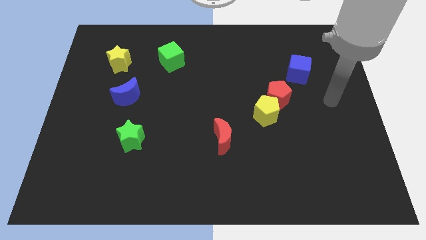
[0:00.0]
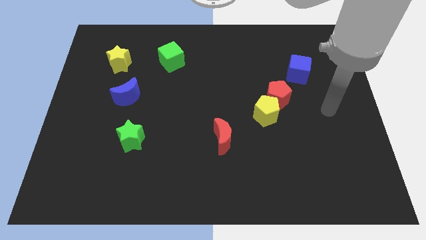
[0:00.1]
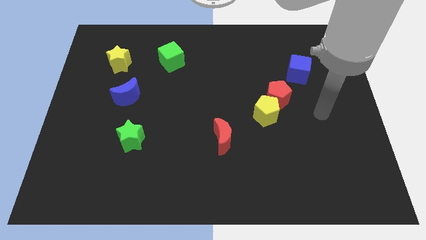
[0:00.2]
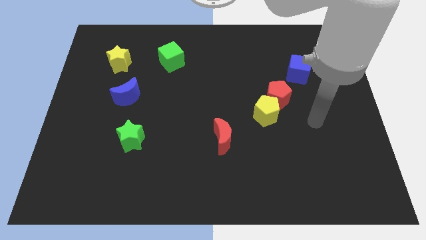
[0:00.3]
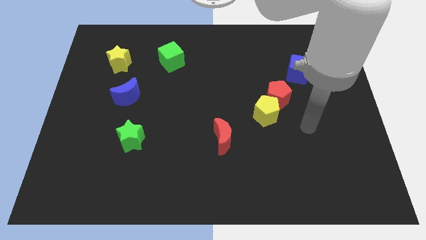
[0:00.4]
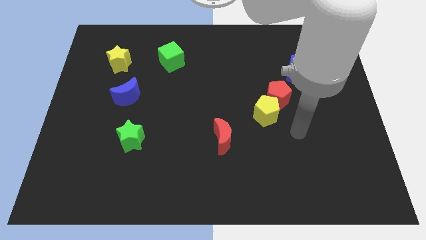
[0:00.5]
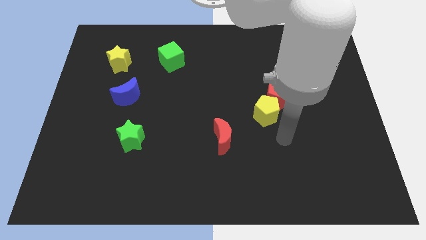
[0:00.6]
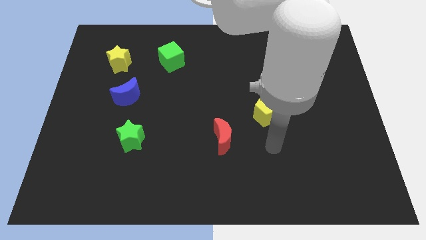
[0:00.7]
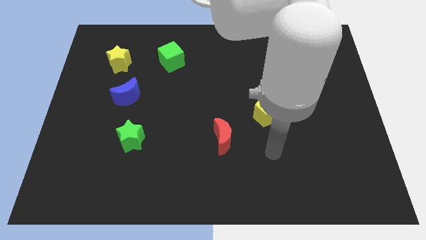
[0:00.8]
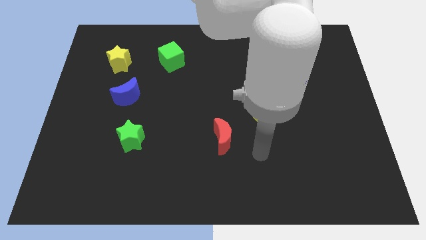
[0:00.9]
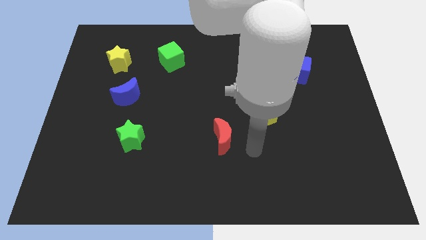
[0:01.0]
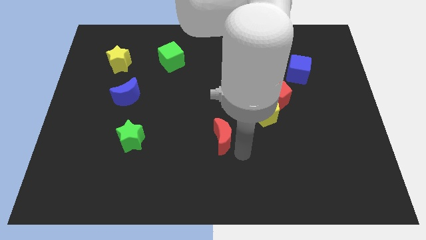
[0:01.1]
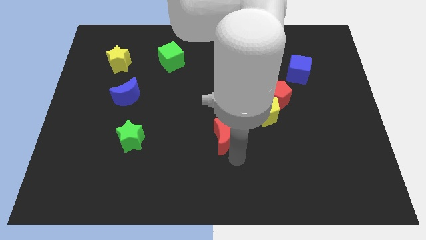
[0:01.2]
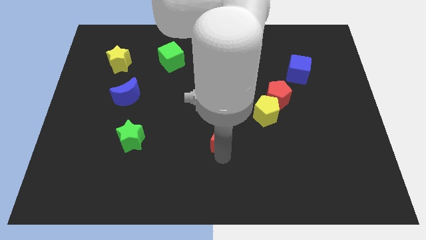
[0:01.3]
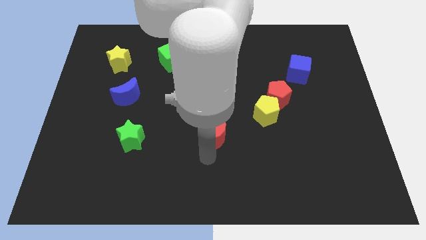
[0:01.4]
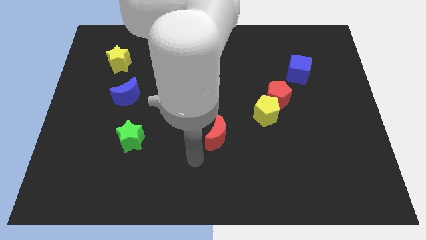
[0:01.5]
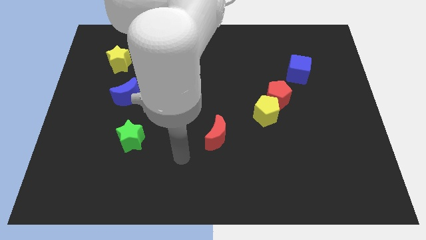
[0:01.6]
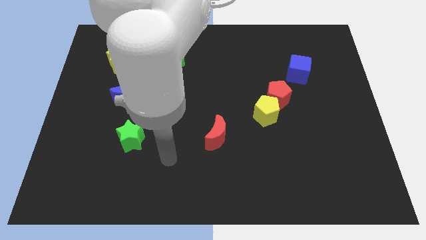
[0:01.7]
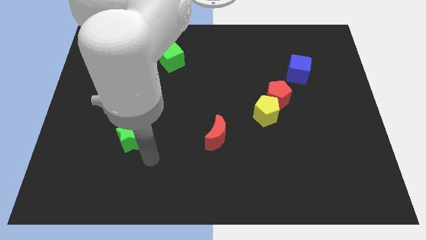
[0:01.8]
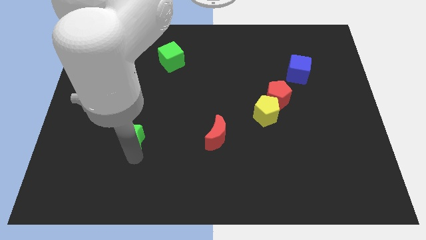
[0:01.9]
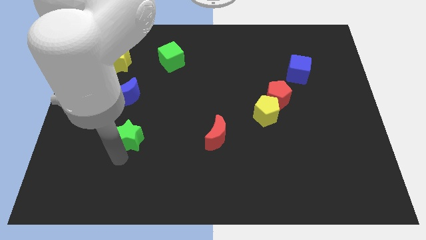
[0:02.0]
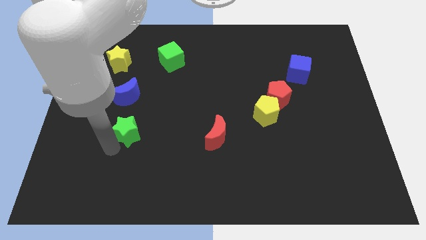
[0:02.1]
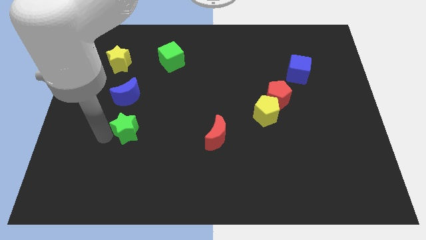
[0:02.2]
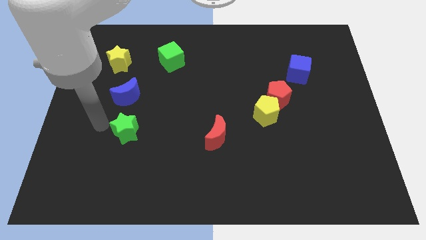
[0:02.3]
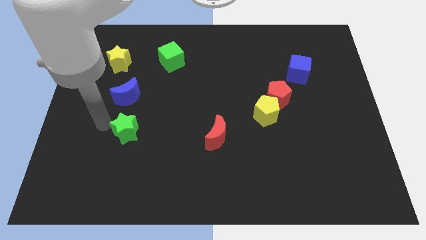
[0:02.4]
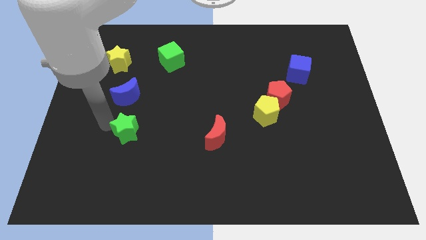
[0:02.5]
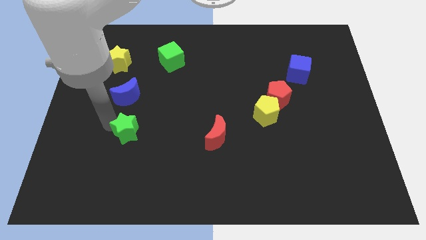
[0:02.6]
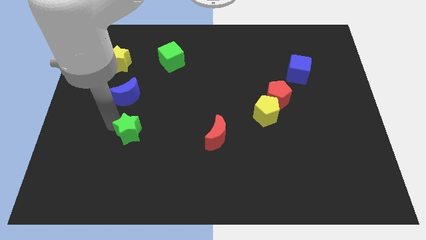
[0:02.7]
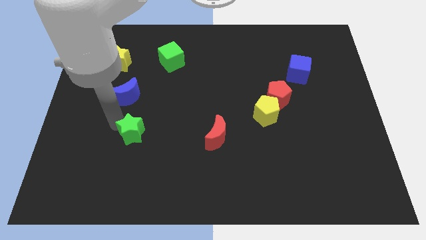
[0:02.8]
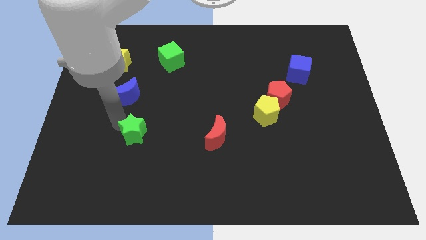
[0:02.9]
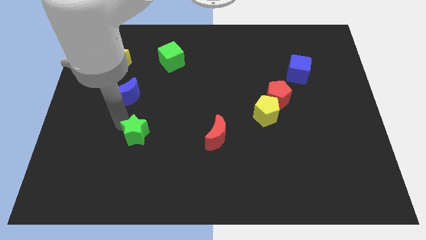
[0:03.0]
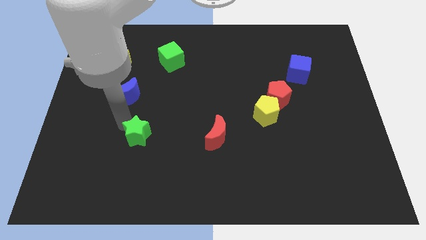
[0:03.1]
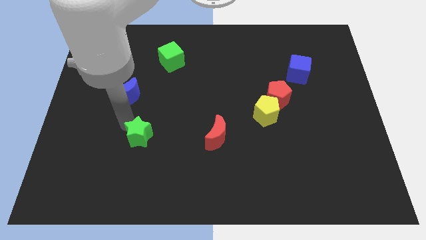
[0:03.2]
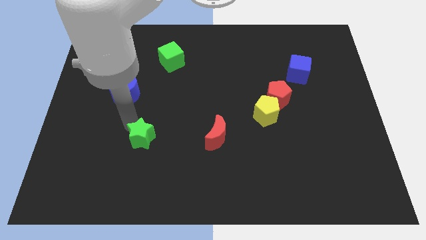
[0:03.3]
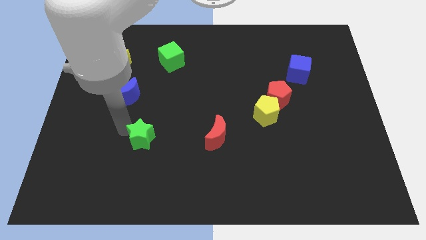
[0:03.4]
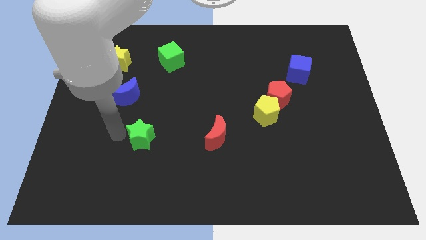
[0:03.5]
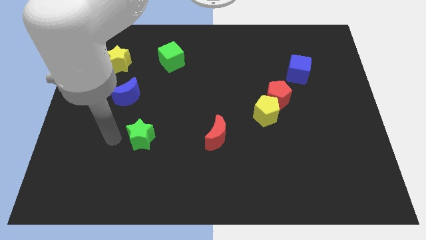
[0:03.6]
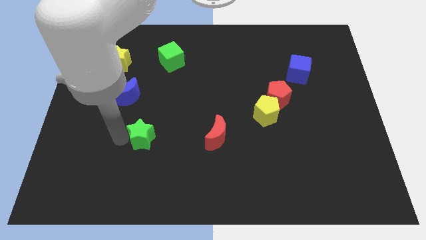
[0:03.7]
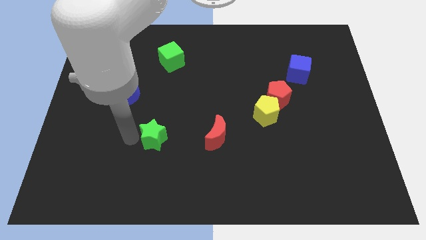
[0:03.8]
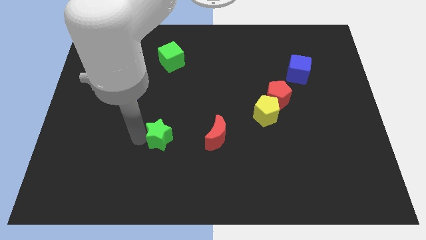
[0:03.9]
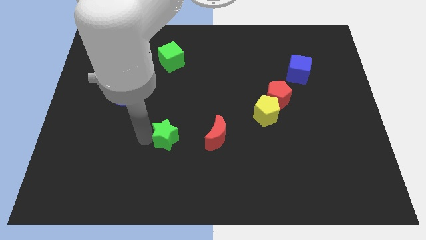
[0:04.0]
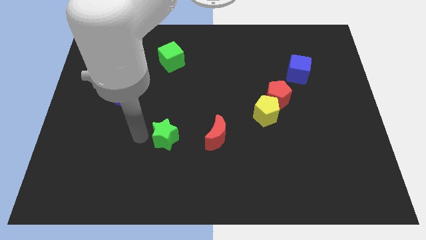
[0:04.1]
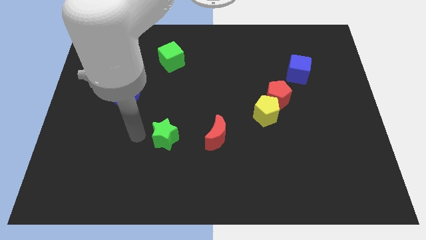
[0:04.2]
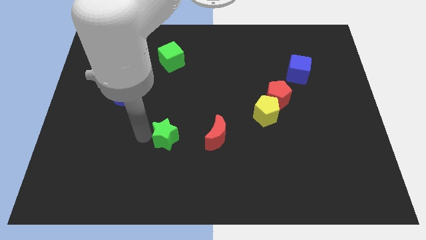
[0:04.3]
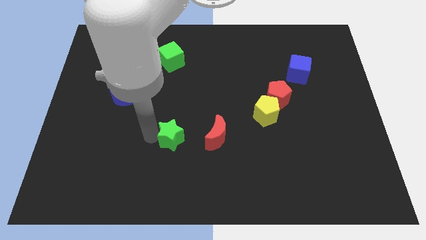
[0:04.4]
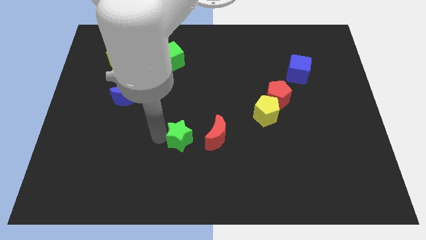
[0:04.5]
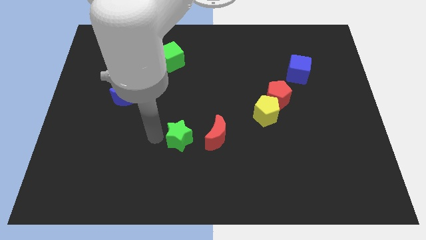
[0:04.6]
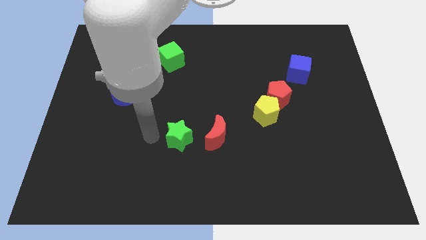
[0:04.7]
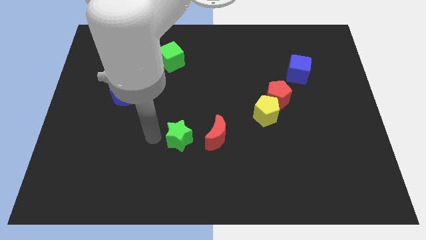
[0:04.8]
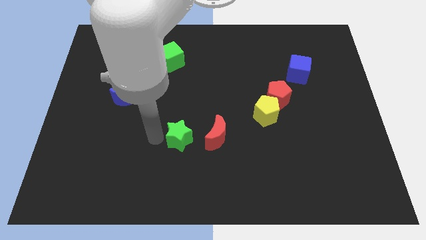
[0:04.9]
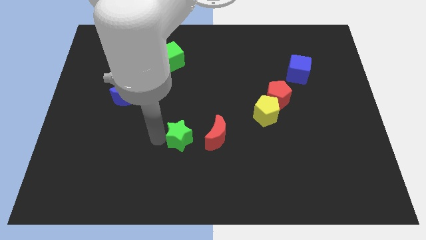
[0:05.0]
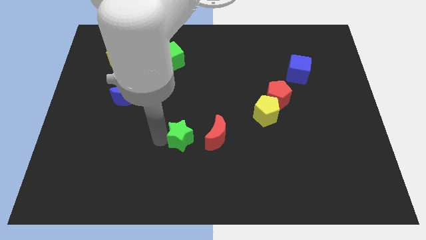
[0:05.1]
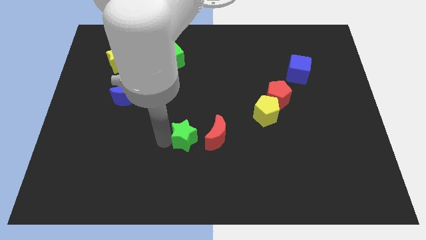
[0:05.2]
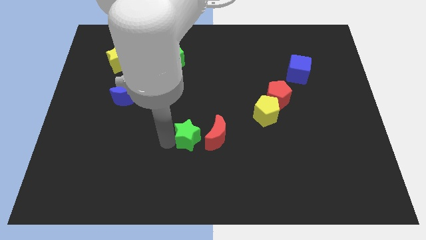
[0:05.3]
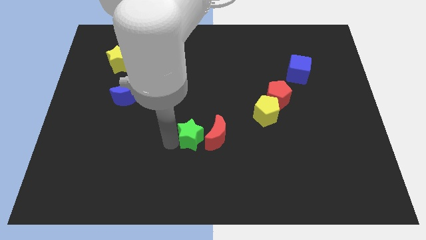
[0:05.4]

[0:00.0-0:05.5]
push the green star close to the red moon

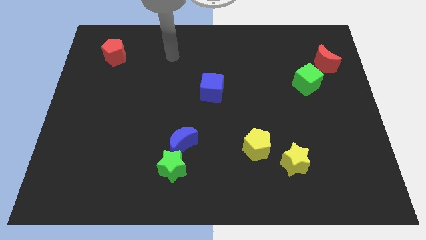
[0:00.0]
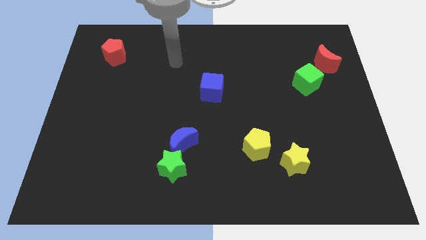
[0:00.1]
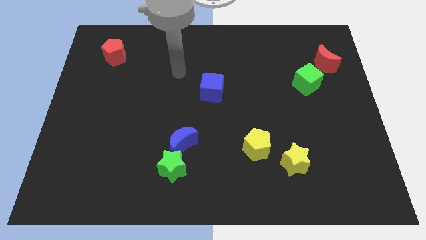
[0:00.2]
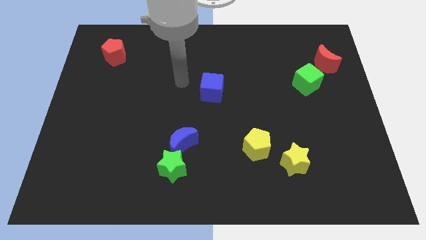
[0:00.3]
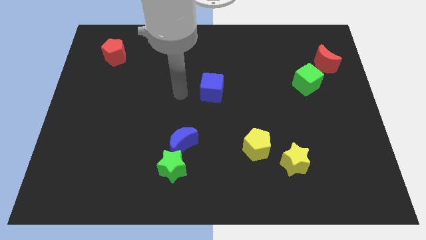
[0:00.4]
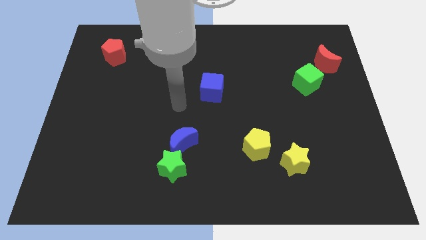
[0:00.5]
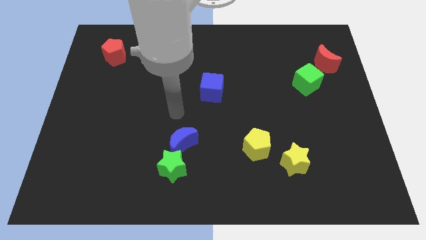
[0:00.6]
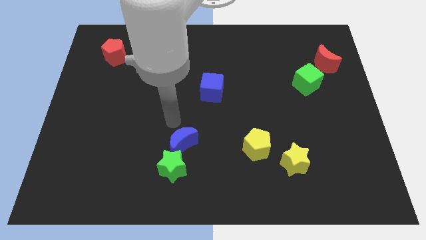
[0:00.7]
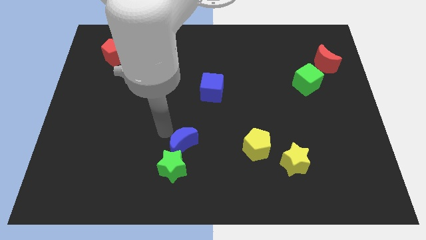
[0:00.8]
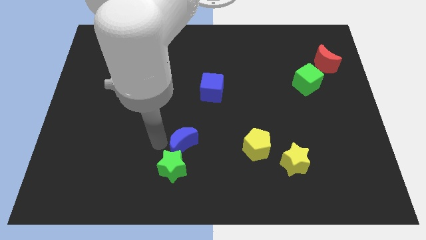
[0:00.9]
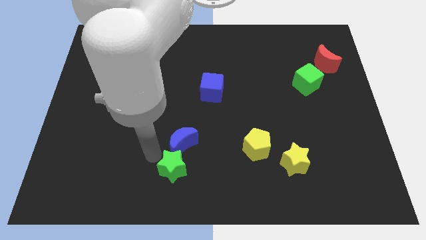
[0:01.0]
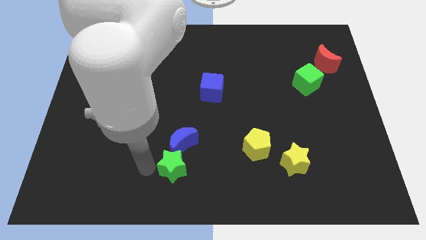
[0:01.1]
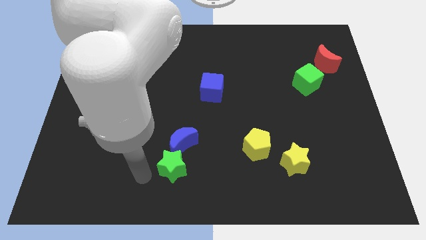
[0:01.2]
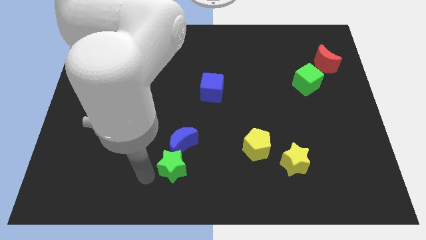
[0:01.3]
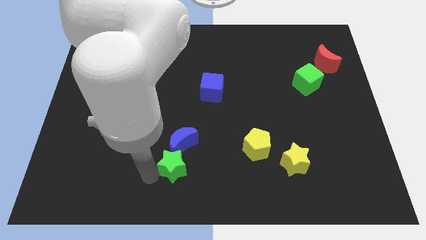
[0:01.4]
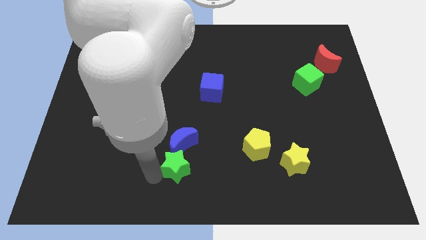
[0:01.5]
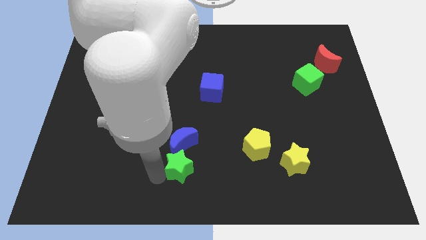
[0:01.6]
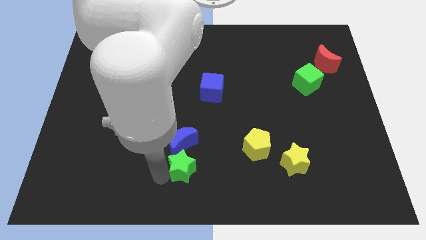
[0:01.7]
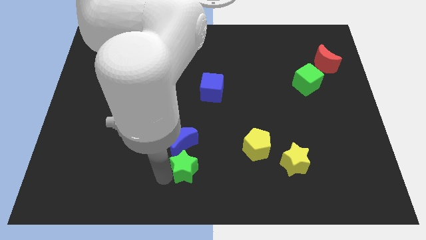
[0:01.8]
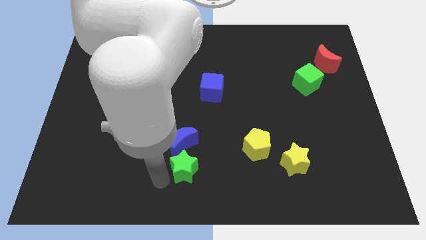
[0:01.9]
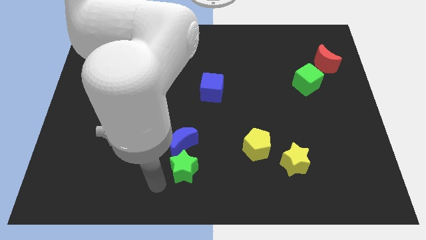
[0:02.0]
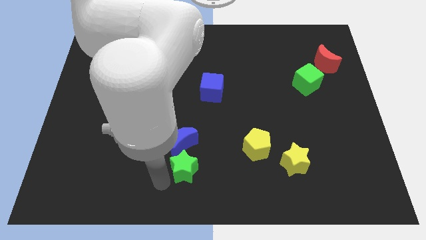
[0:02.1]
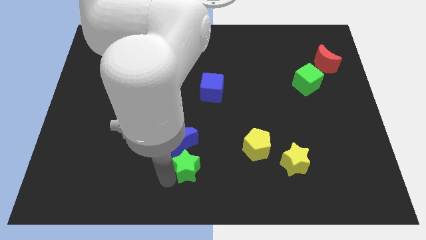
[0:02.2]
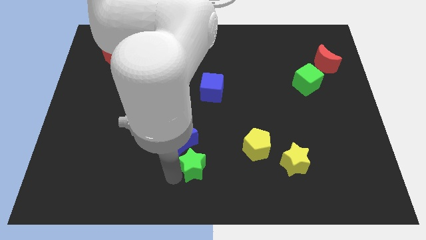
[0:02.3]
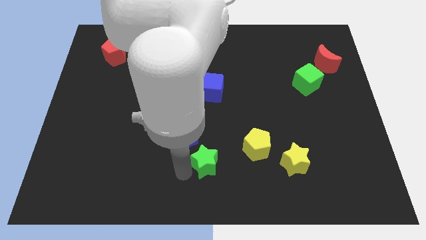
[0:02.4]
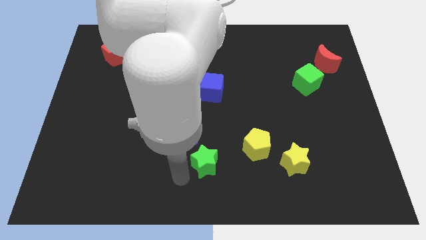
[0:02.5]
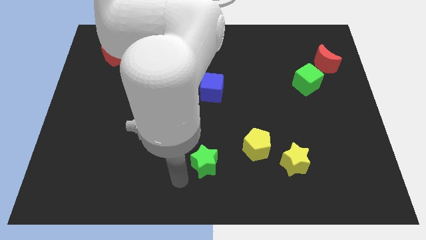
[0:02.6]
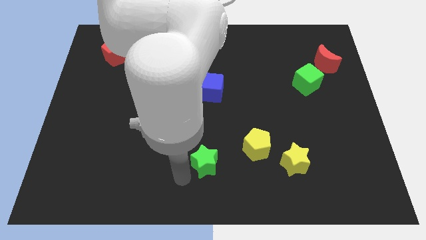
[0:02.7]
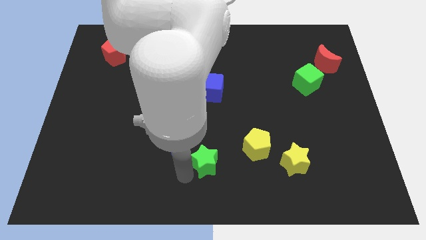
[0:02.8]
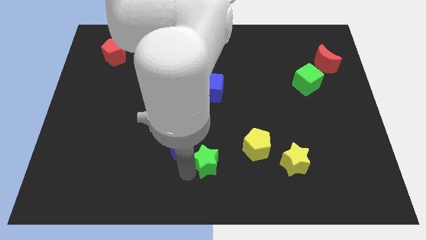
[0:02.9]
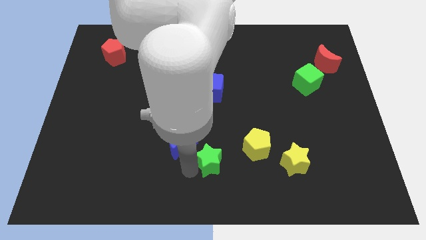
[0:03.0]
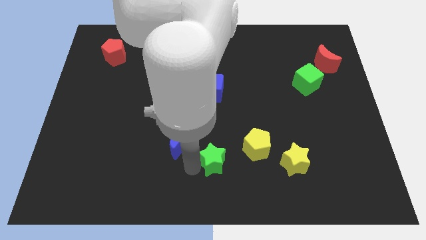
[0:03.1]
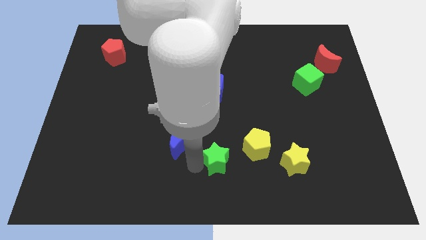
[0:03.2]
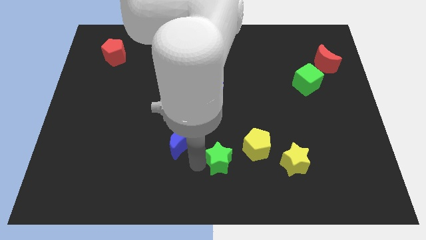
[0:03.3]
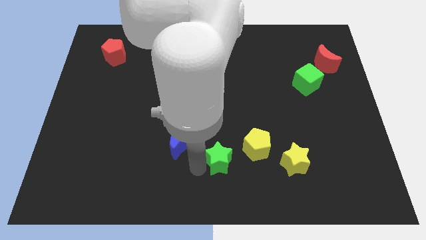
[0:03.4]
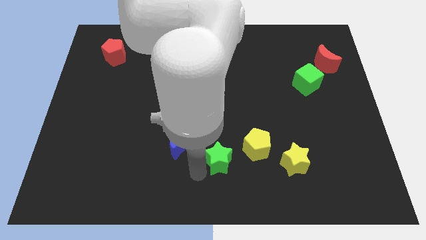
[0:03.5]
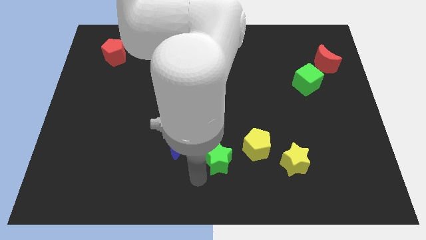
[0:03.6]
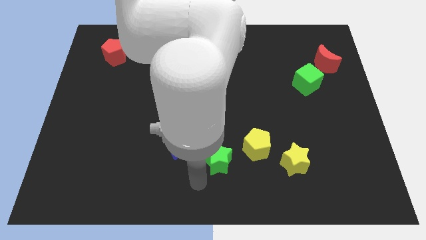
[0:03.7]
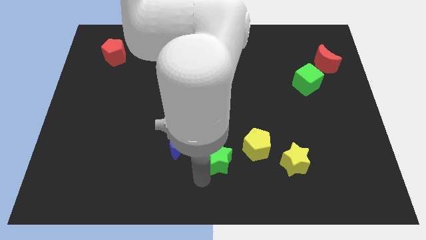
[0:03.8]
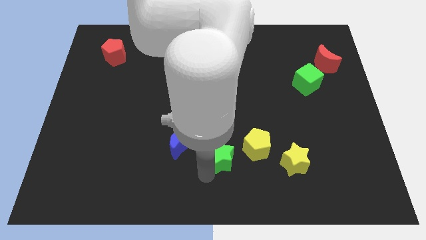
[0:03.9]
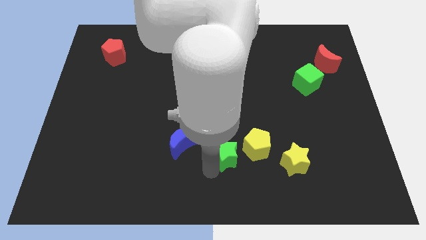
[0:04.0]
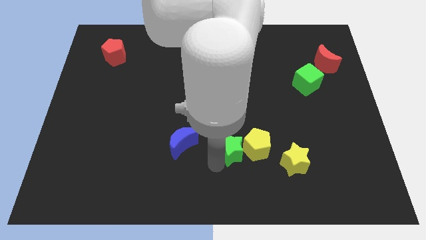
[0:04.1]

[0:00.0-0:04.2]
put the green star next to the yellow pentagon
